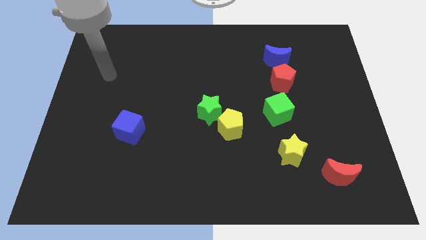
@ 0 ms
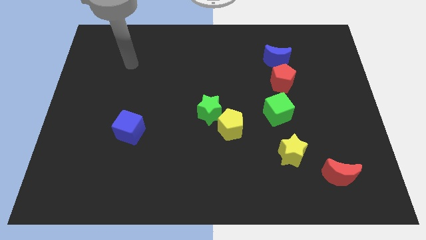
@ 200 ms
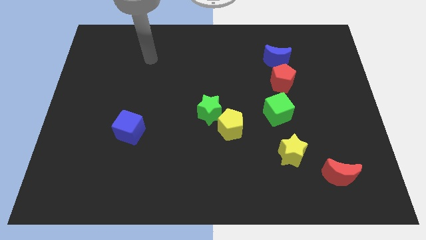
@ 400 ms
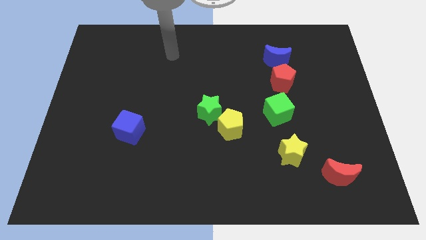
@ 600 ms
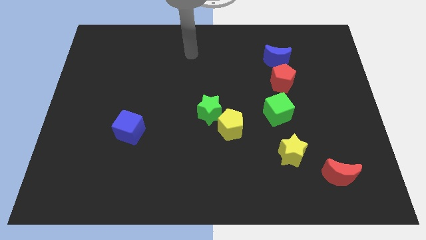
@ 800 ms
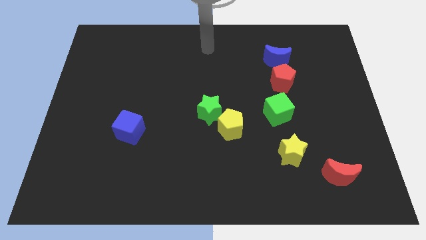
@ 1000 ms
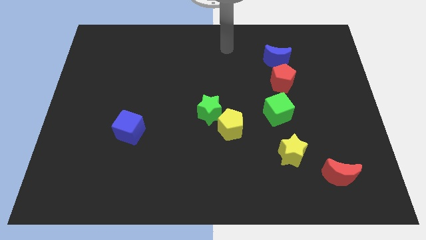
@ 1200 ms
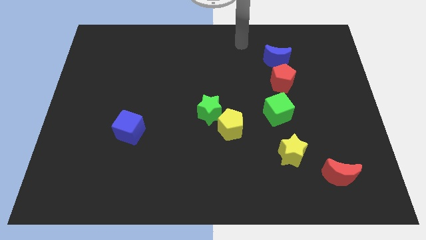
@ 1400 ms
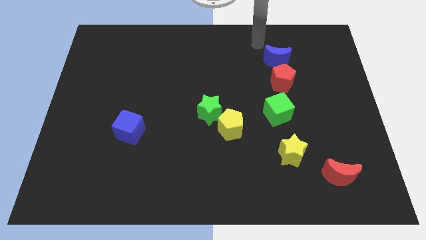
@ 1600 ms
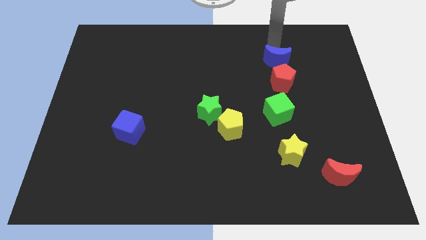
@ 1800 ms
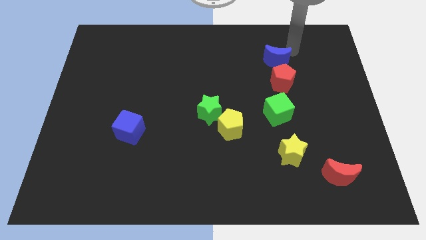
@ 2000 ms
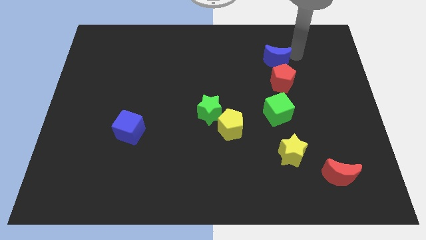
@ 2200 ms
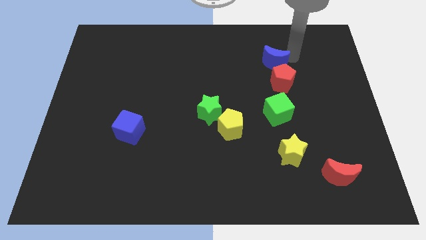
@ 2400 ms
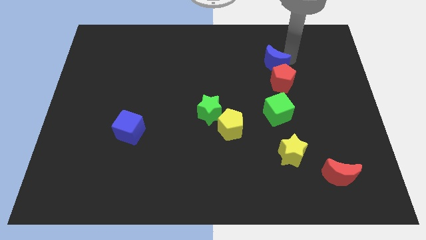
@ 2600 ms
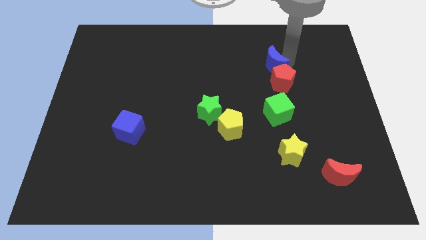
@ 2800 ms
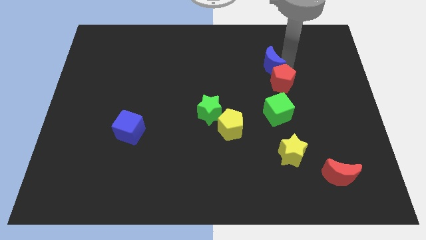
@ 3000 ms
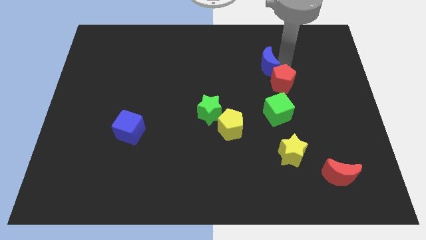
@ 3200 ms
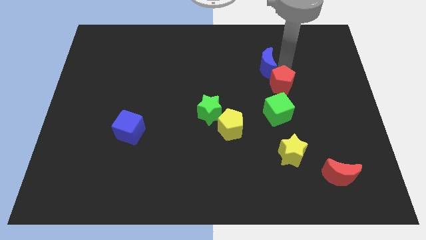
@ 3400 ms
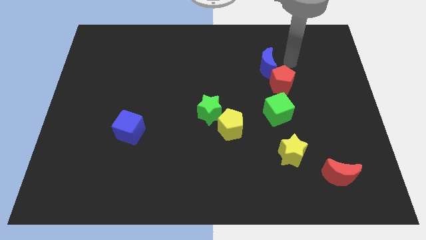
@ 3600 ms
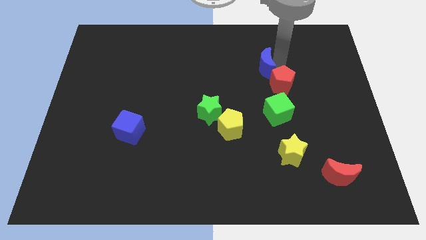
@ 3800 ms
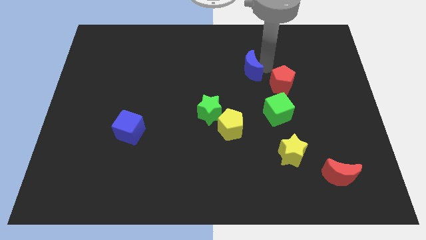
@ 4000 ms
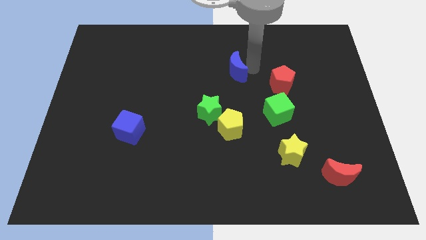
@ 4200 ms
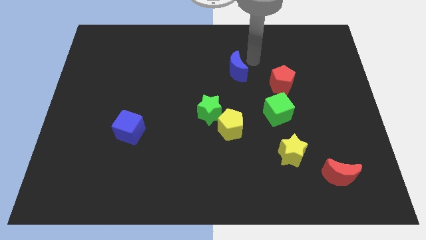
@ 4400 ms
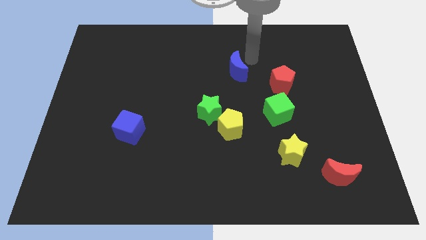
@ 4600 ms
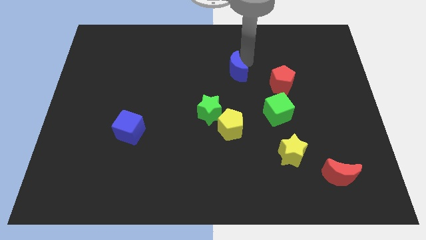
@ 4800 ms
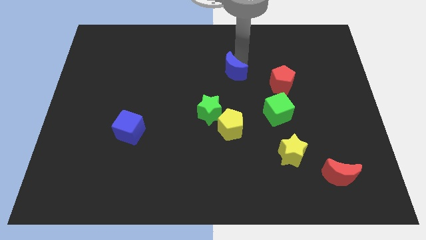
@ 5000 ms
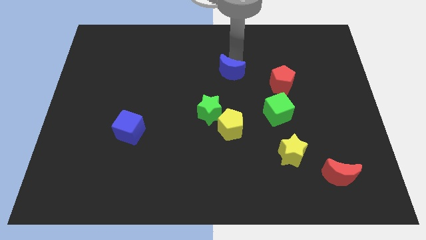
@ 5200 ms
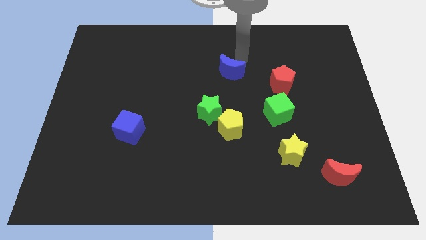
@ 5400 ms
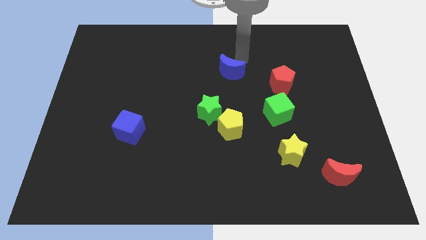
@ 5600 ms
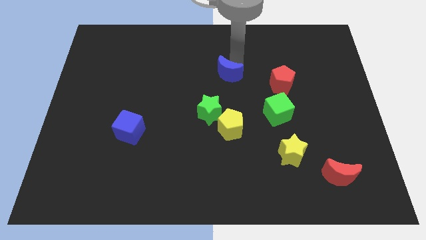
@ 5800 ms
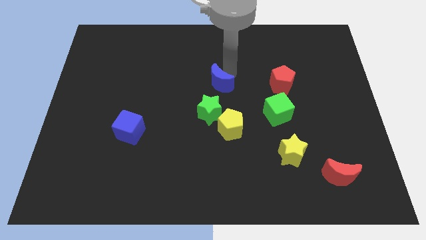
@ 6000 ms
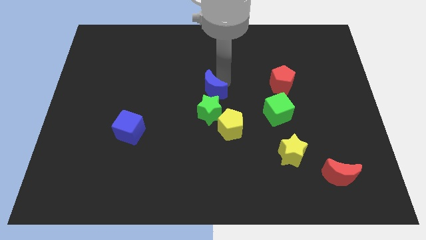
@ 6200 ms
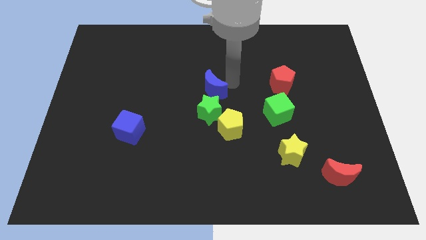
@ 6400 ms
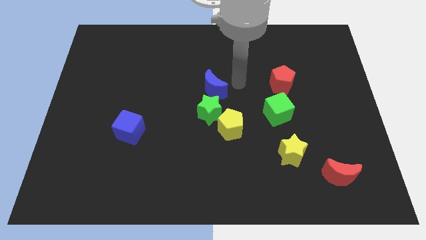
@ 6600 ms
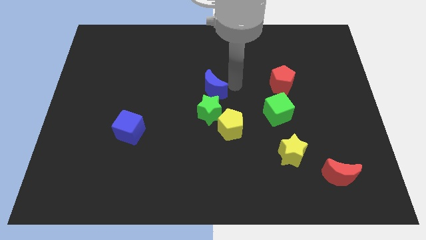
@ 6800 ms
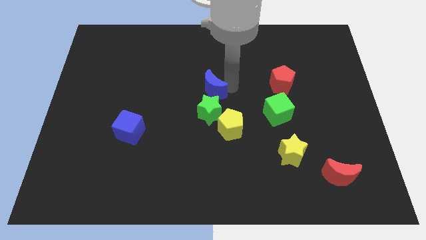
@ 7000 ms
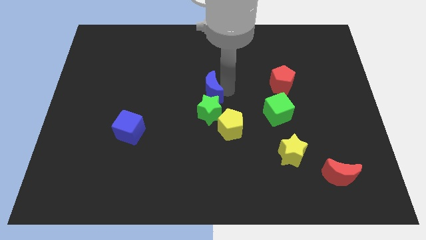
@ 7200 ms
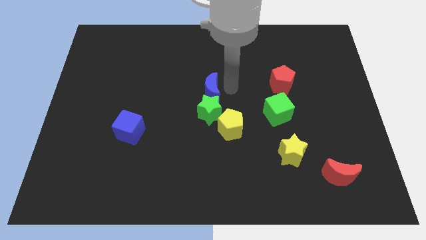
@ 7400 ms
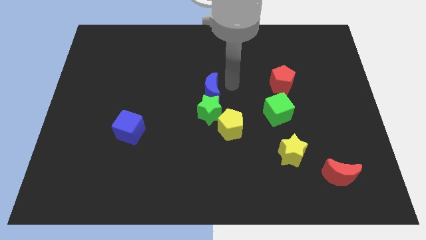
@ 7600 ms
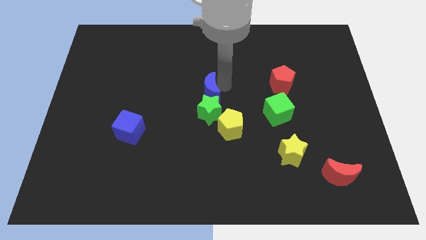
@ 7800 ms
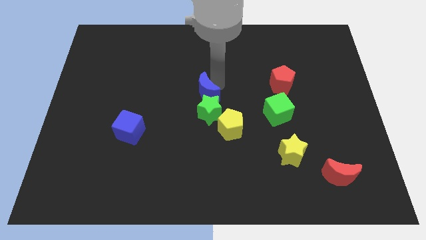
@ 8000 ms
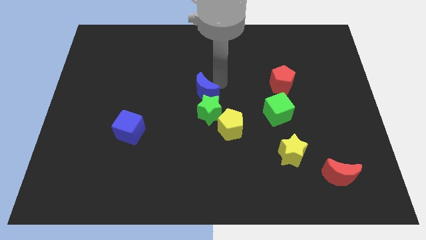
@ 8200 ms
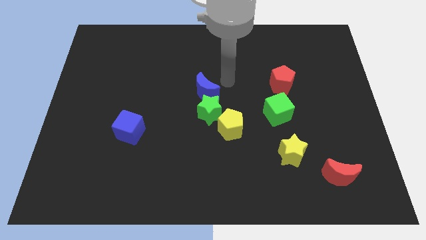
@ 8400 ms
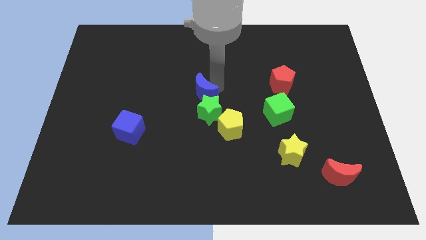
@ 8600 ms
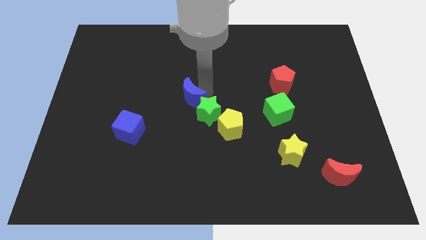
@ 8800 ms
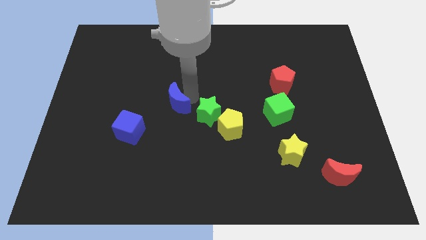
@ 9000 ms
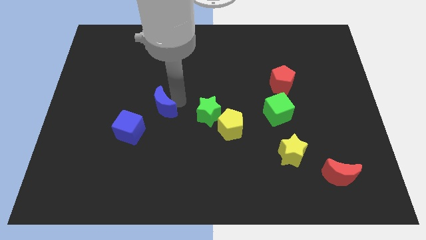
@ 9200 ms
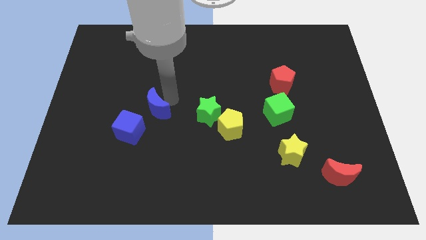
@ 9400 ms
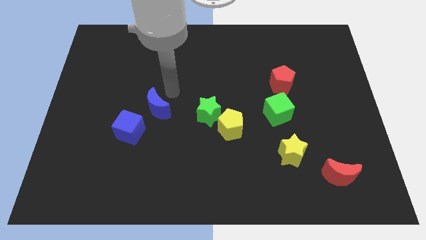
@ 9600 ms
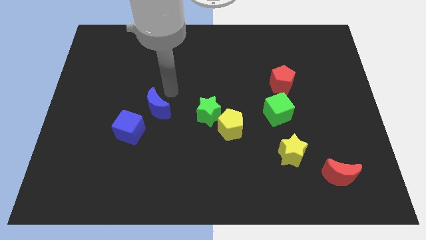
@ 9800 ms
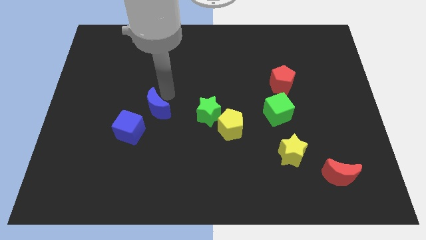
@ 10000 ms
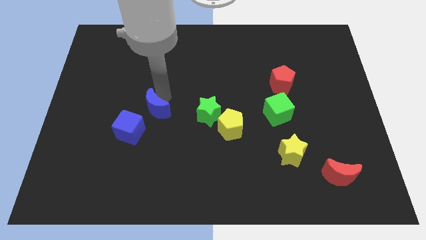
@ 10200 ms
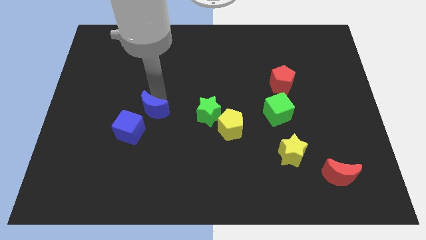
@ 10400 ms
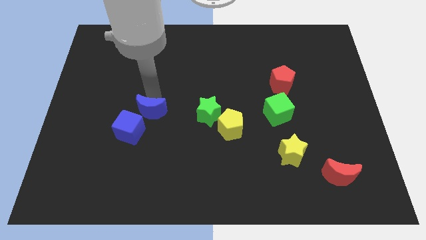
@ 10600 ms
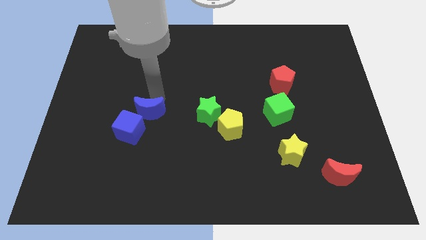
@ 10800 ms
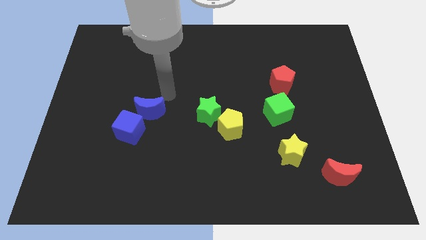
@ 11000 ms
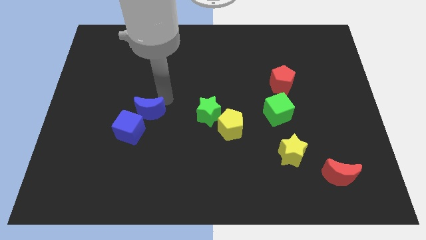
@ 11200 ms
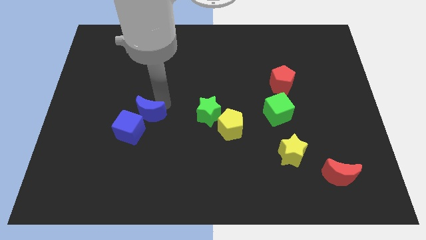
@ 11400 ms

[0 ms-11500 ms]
put the blue moon to the blue cube

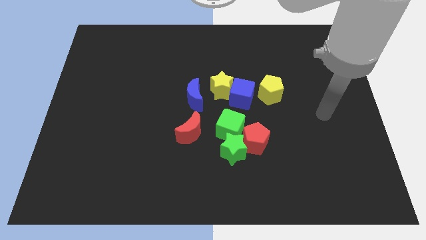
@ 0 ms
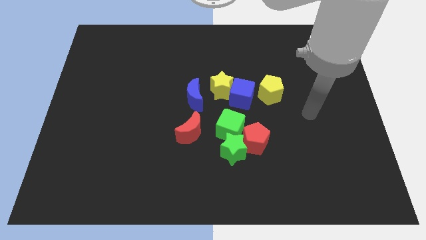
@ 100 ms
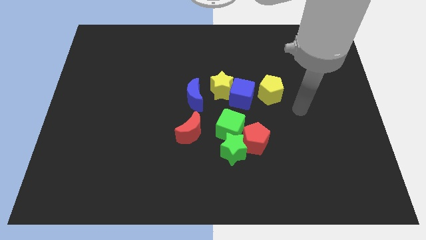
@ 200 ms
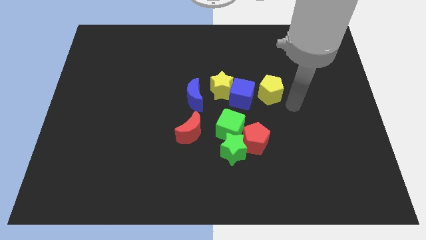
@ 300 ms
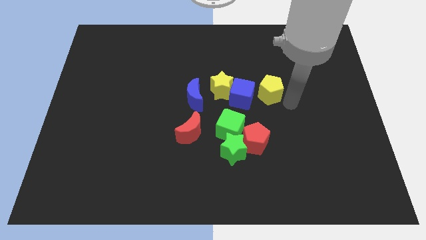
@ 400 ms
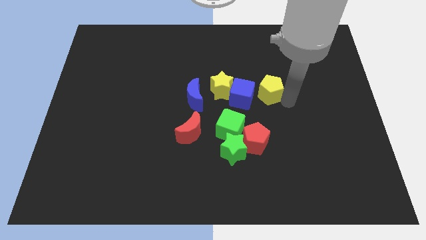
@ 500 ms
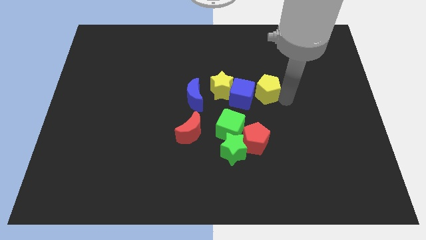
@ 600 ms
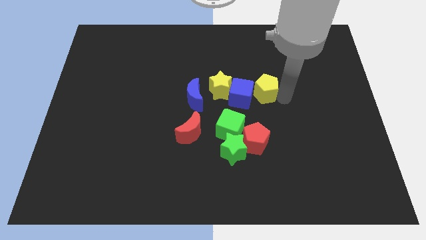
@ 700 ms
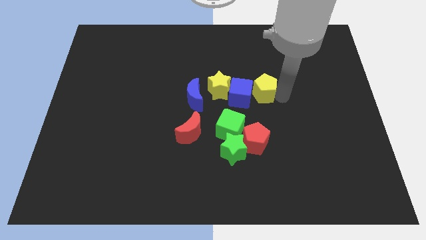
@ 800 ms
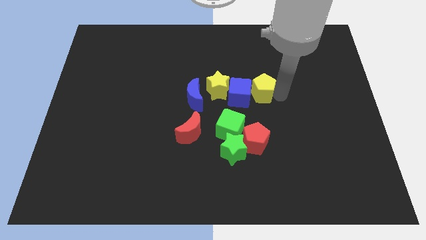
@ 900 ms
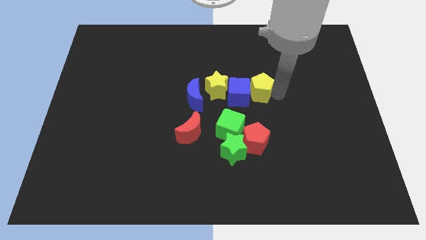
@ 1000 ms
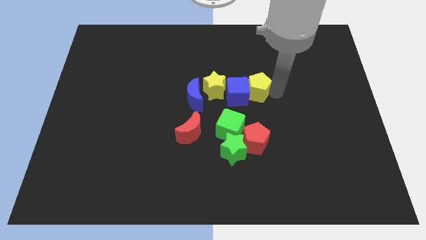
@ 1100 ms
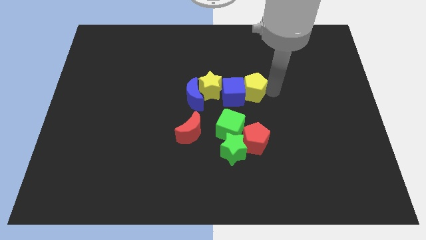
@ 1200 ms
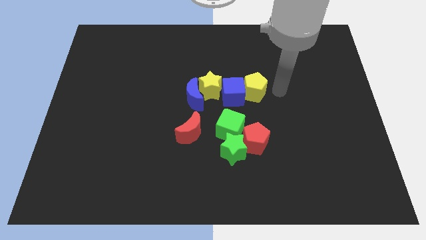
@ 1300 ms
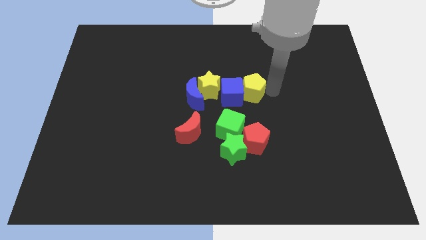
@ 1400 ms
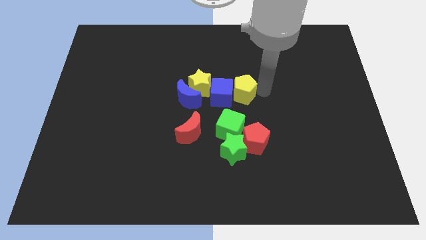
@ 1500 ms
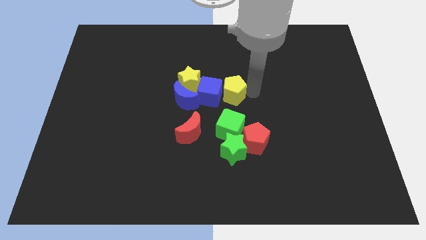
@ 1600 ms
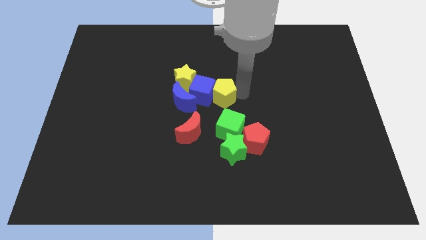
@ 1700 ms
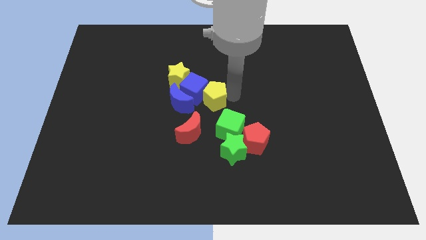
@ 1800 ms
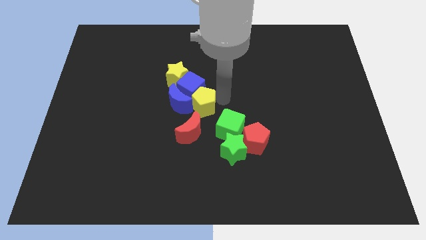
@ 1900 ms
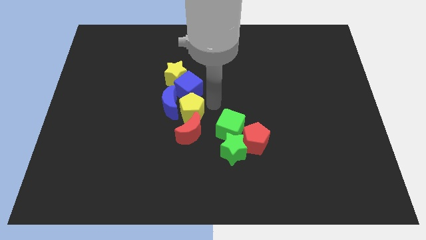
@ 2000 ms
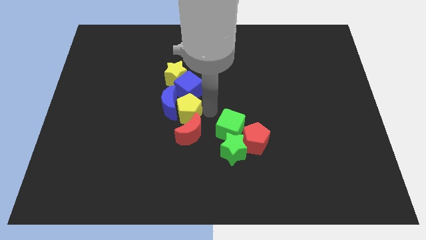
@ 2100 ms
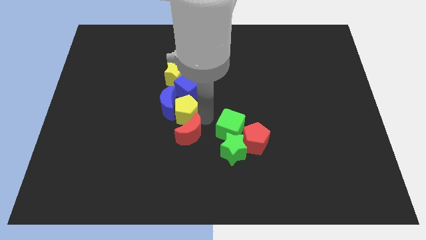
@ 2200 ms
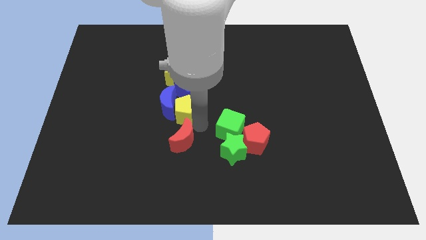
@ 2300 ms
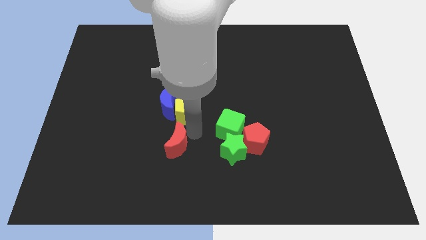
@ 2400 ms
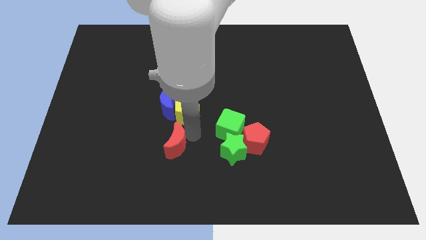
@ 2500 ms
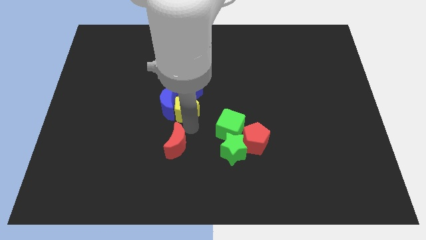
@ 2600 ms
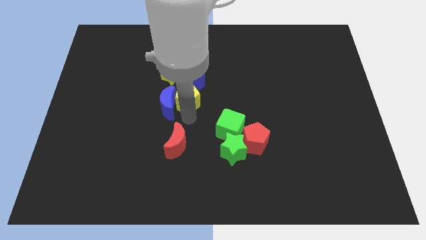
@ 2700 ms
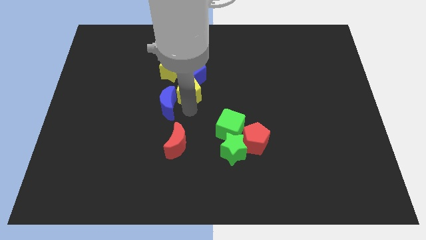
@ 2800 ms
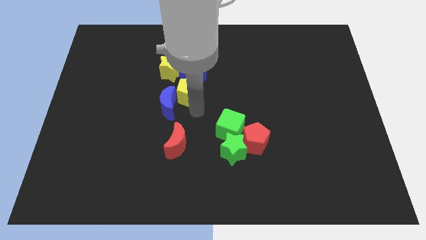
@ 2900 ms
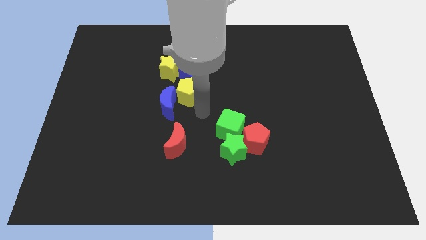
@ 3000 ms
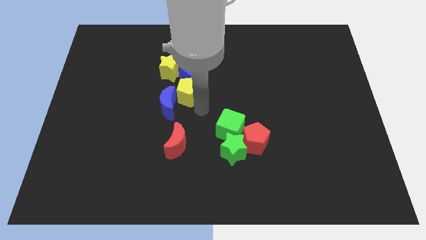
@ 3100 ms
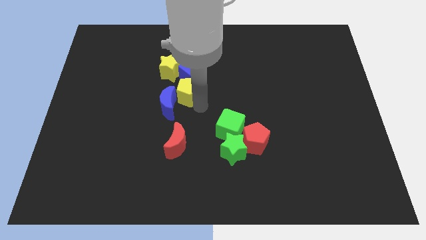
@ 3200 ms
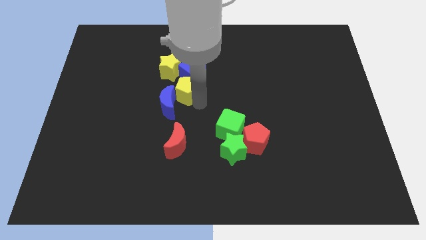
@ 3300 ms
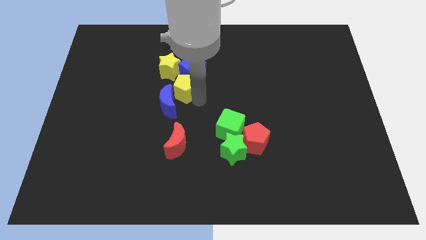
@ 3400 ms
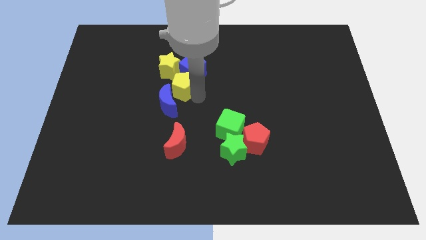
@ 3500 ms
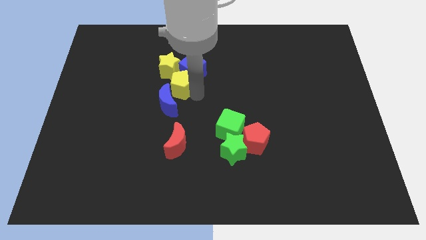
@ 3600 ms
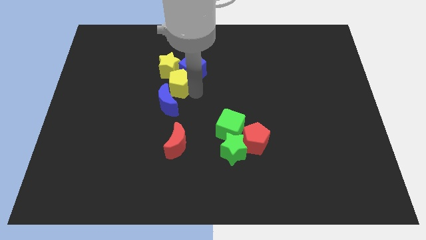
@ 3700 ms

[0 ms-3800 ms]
move the yellow pentagon towards the yellow star
